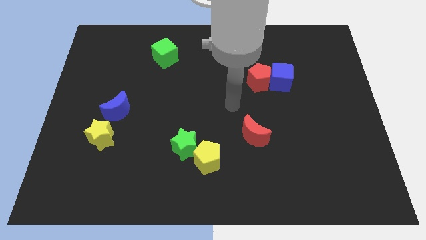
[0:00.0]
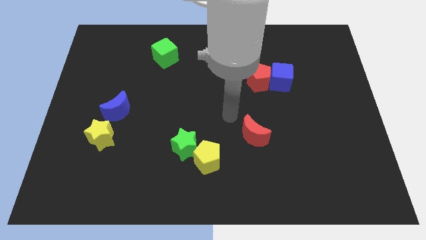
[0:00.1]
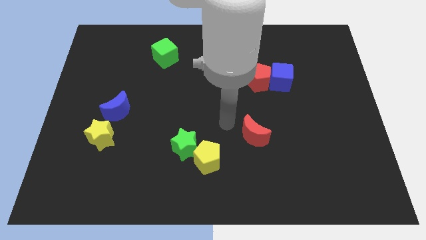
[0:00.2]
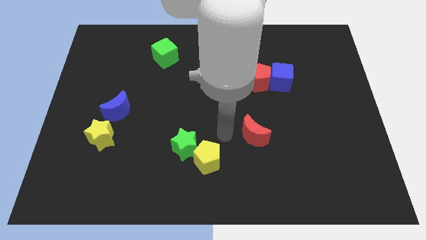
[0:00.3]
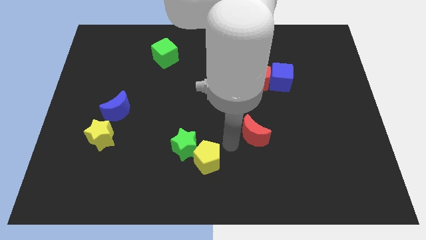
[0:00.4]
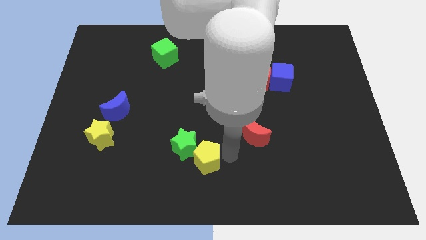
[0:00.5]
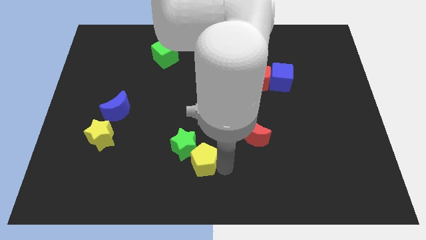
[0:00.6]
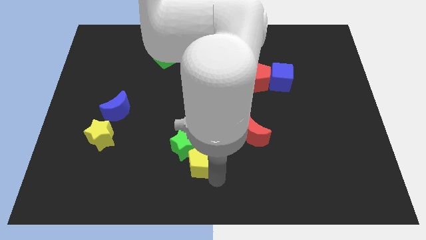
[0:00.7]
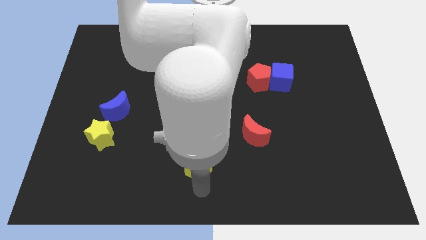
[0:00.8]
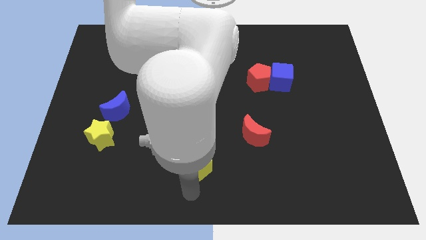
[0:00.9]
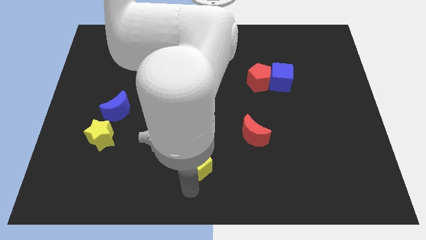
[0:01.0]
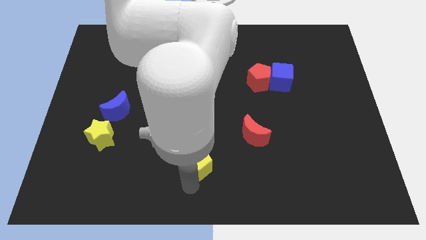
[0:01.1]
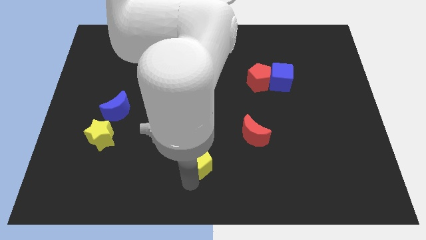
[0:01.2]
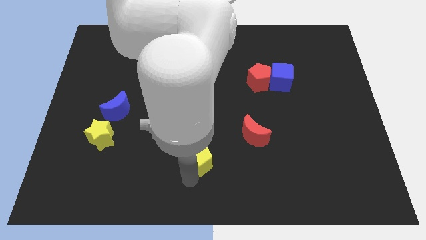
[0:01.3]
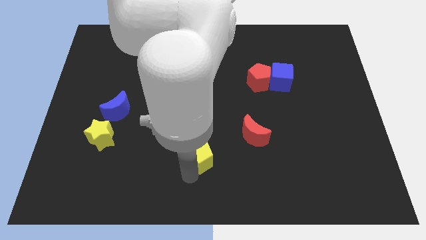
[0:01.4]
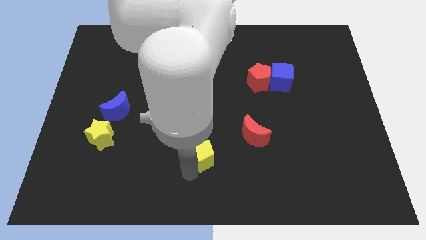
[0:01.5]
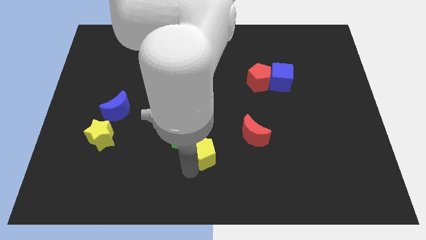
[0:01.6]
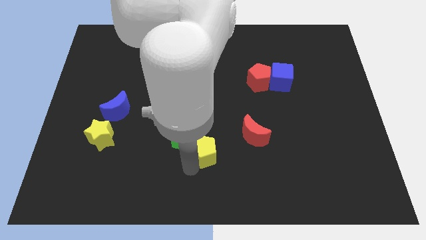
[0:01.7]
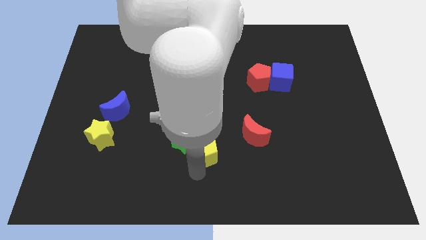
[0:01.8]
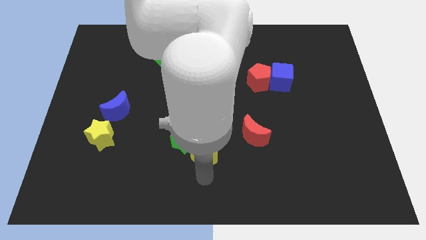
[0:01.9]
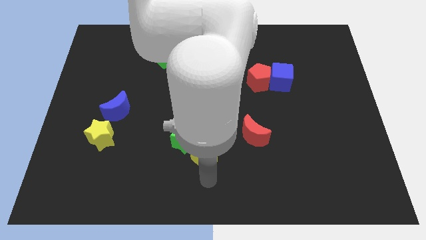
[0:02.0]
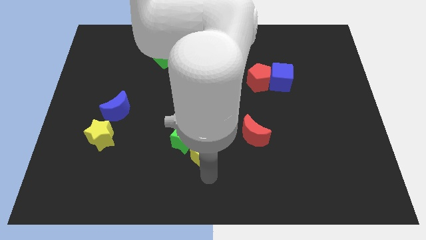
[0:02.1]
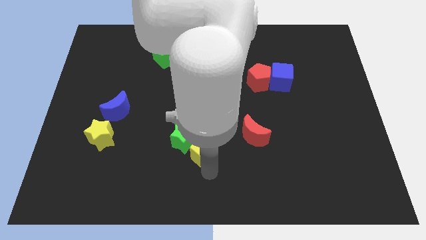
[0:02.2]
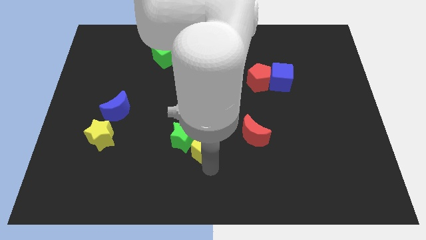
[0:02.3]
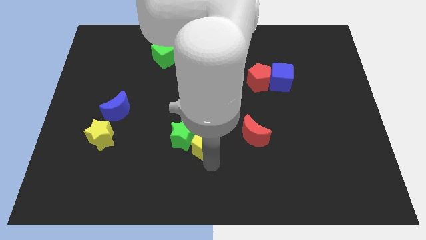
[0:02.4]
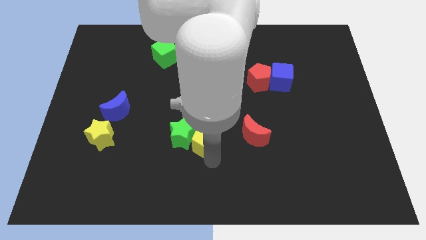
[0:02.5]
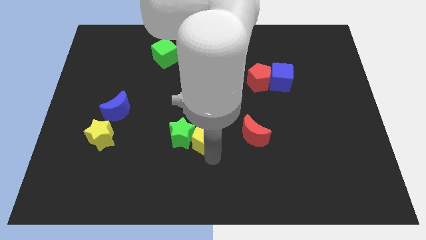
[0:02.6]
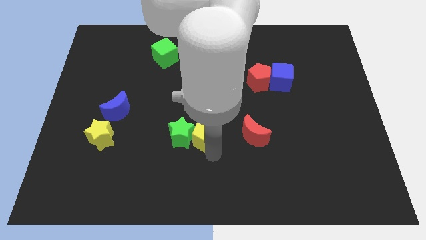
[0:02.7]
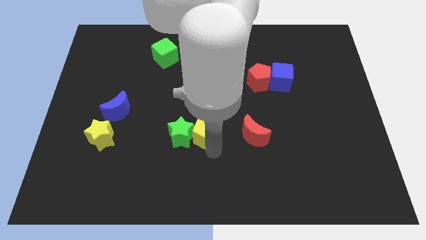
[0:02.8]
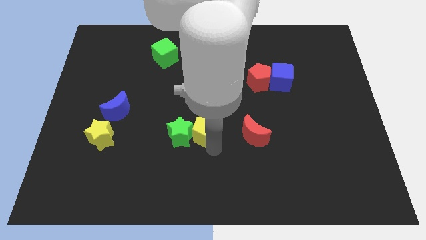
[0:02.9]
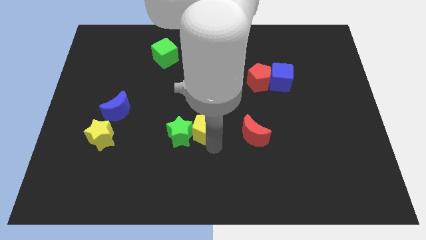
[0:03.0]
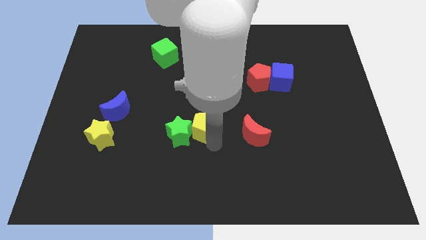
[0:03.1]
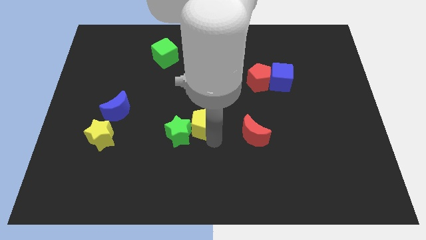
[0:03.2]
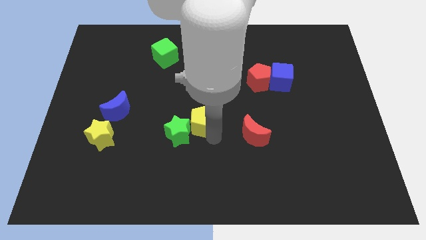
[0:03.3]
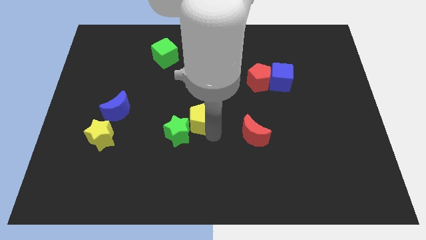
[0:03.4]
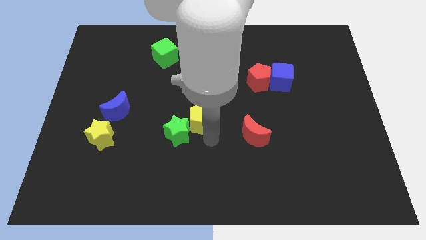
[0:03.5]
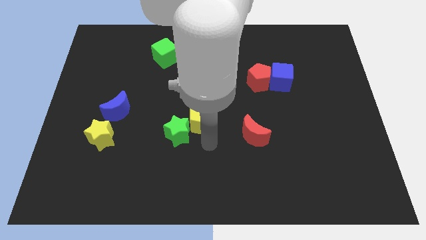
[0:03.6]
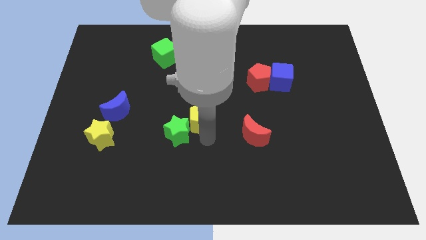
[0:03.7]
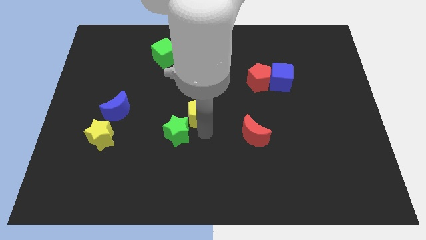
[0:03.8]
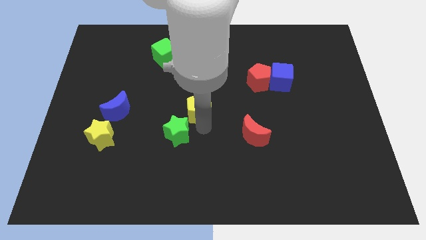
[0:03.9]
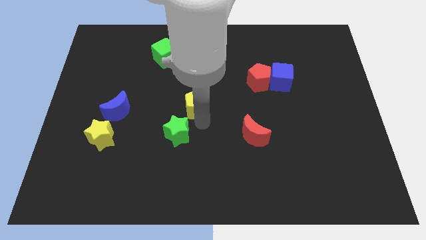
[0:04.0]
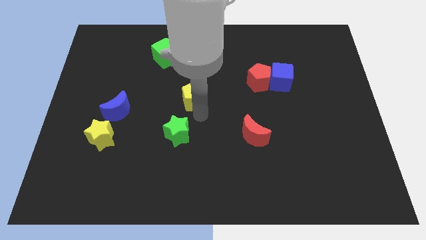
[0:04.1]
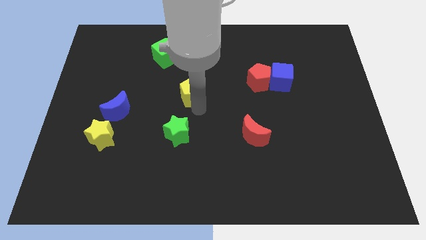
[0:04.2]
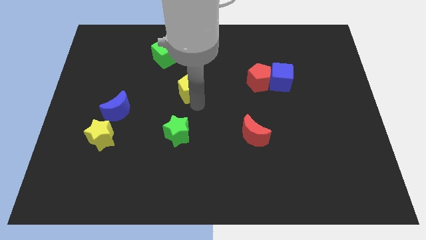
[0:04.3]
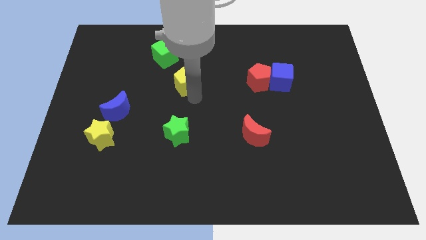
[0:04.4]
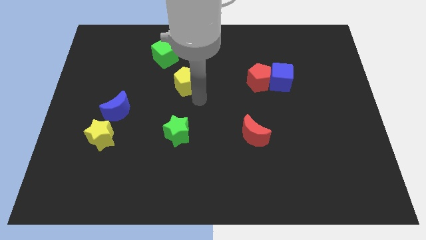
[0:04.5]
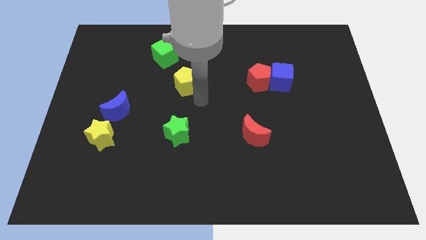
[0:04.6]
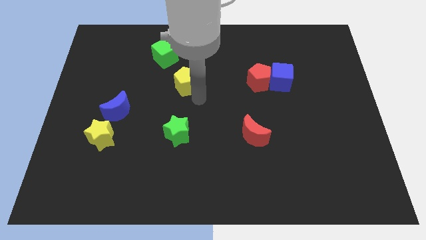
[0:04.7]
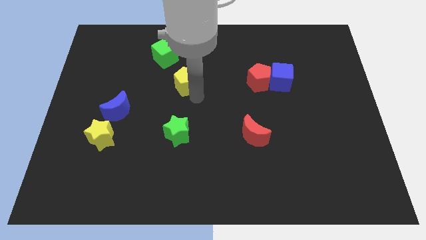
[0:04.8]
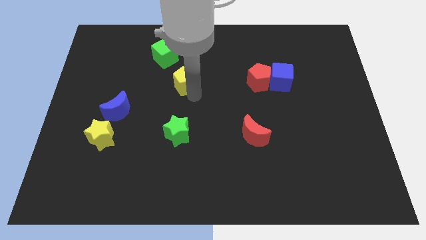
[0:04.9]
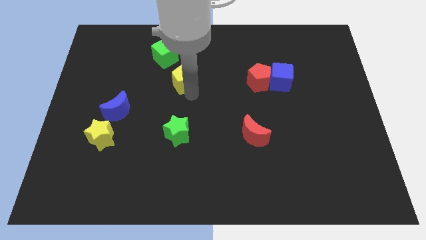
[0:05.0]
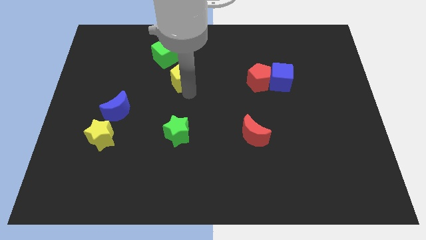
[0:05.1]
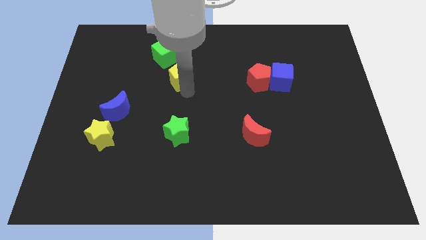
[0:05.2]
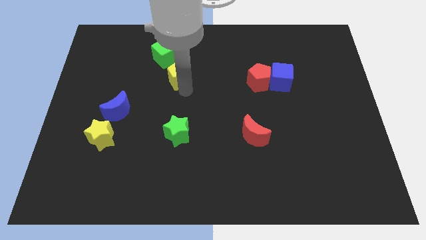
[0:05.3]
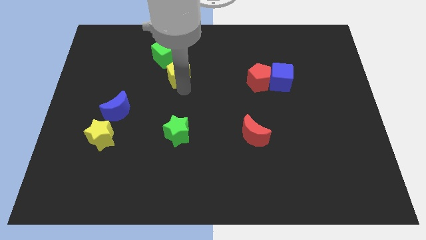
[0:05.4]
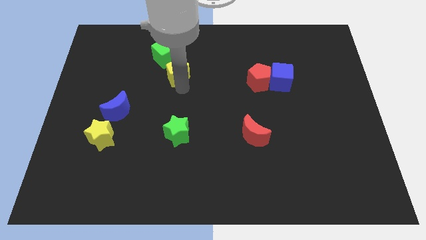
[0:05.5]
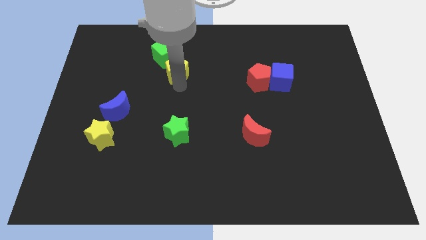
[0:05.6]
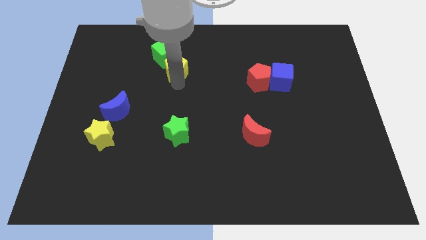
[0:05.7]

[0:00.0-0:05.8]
push the yellow pentagon to the green cube

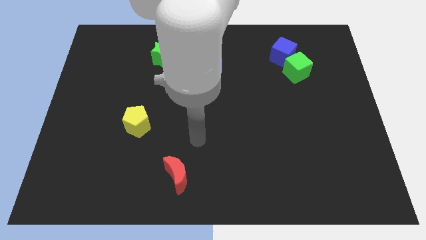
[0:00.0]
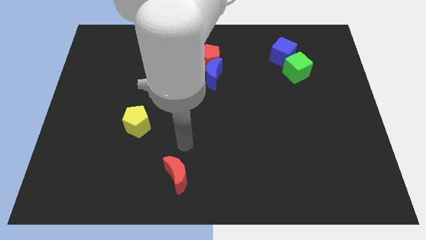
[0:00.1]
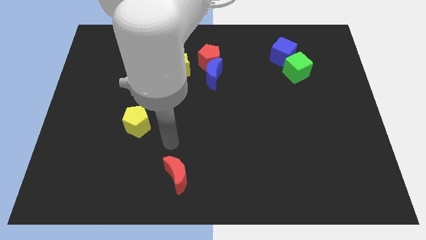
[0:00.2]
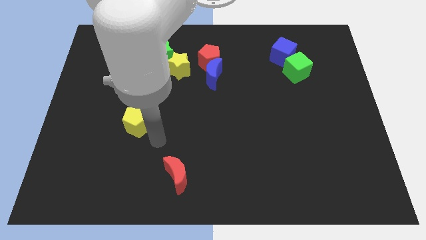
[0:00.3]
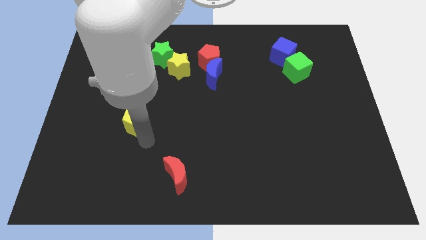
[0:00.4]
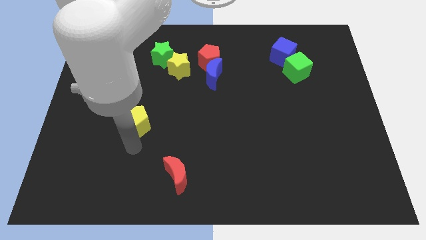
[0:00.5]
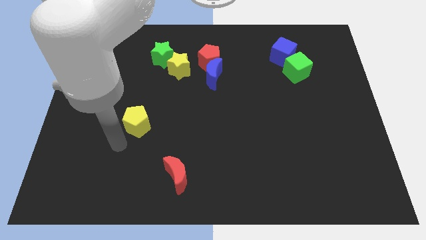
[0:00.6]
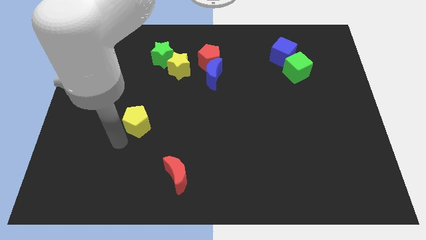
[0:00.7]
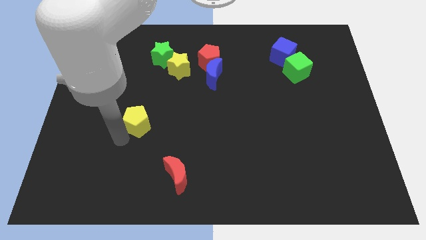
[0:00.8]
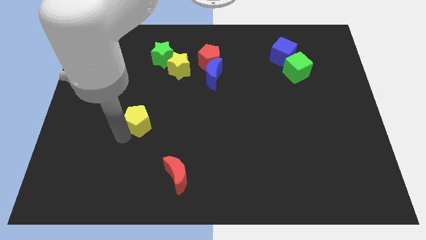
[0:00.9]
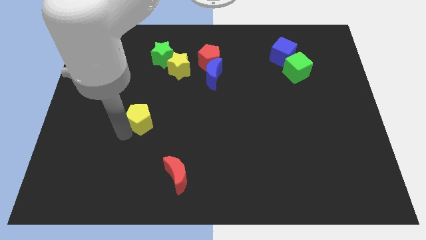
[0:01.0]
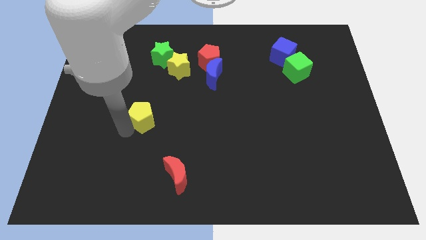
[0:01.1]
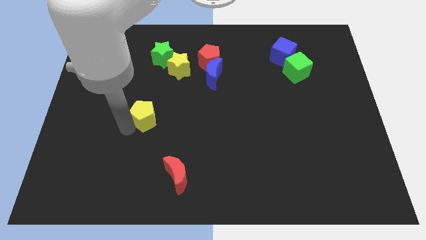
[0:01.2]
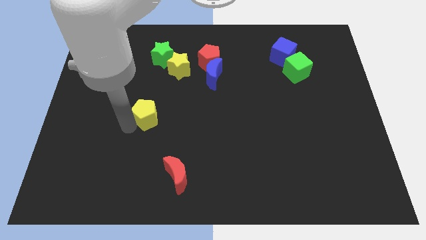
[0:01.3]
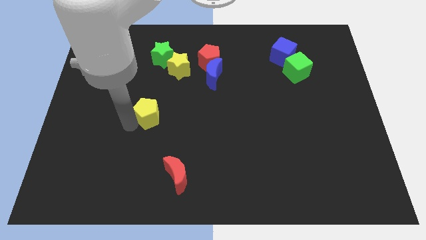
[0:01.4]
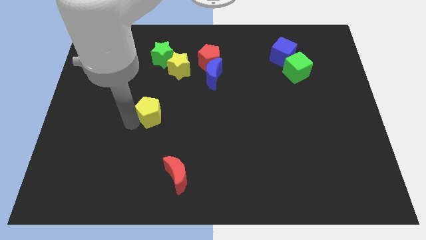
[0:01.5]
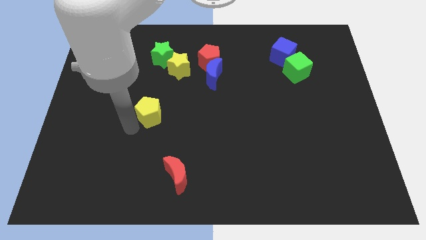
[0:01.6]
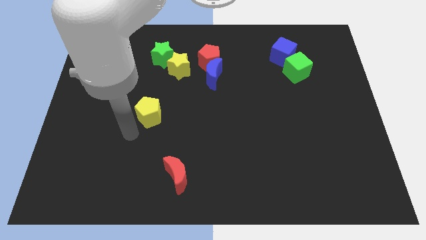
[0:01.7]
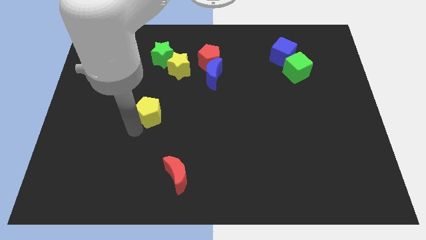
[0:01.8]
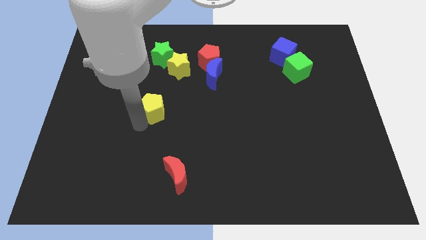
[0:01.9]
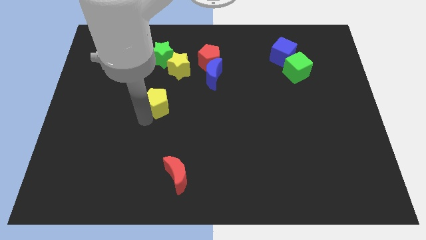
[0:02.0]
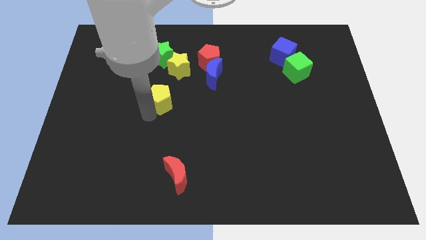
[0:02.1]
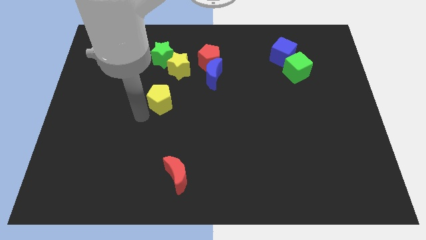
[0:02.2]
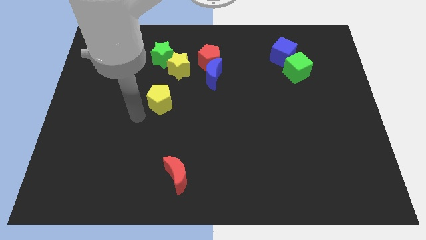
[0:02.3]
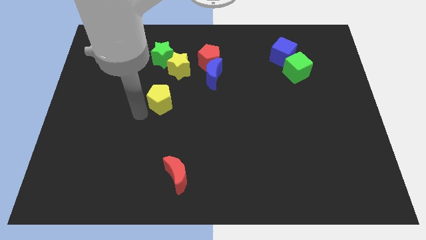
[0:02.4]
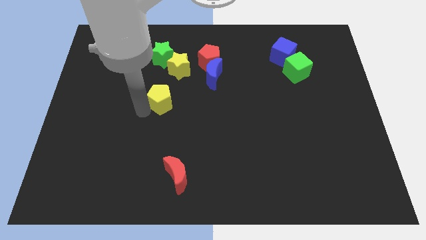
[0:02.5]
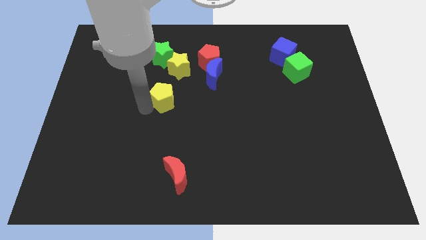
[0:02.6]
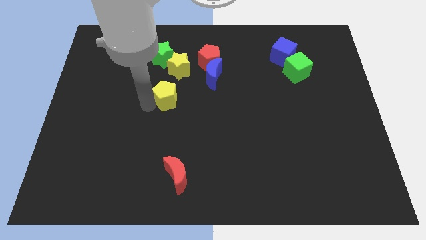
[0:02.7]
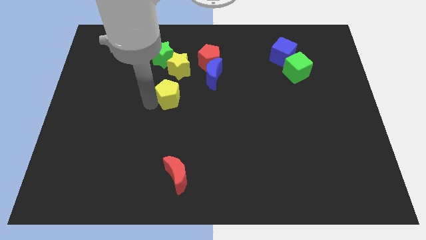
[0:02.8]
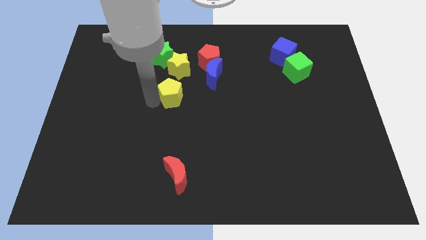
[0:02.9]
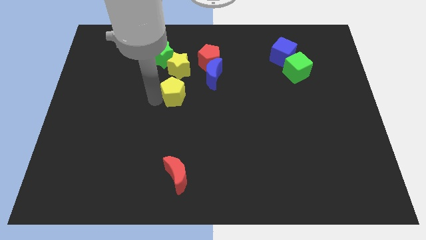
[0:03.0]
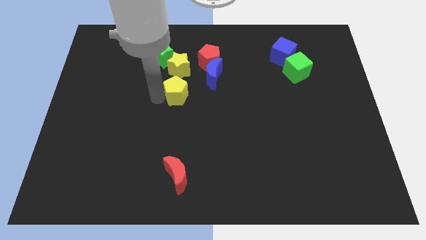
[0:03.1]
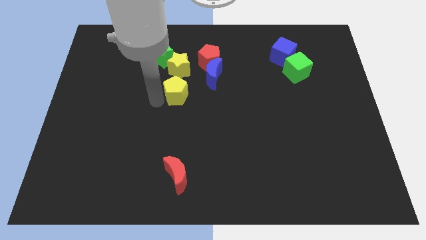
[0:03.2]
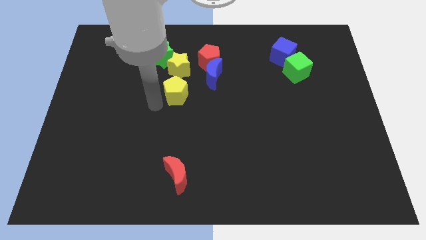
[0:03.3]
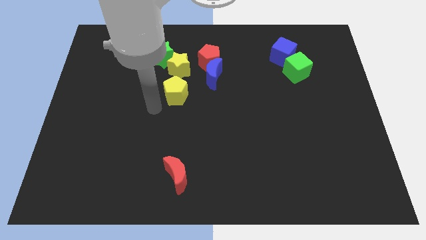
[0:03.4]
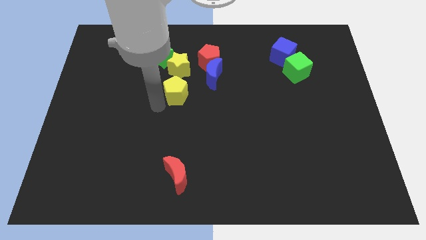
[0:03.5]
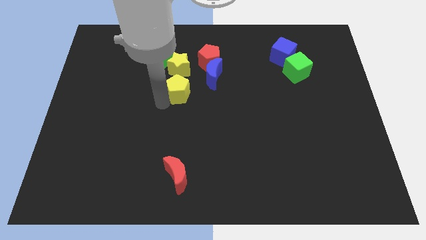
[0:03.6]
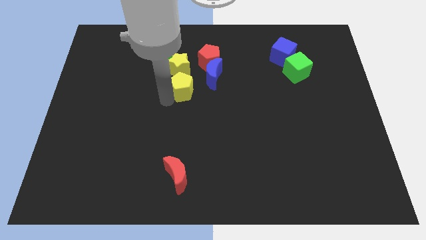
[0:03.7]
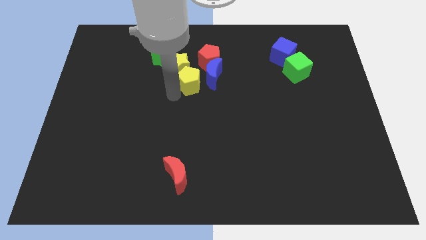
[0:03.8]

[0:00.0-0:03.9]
move the yellow pentagon close to the blue moon
